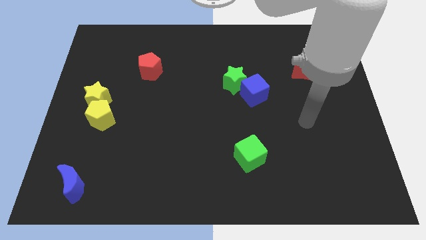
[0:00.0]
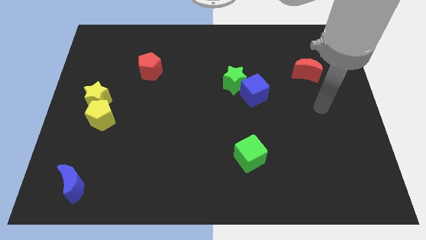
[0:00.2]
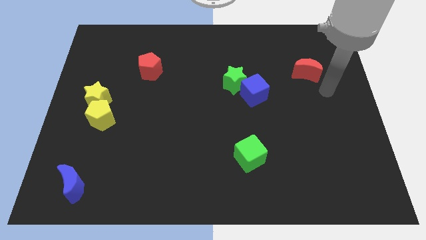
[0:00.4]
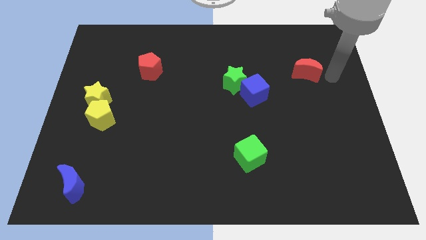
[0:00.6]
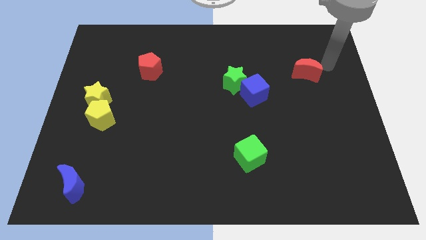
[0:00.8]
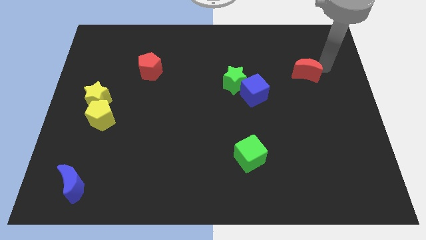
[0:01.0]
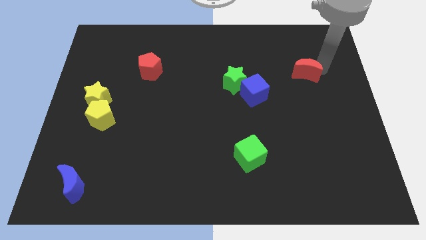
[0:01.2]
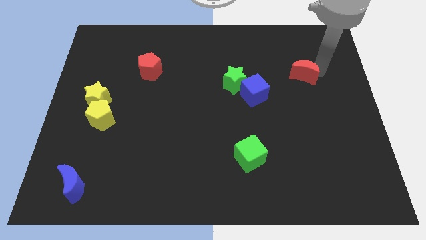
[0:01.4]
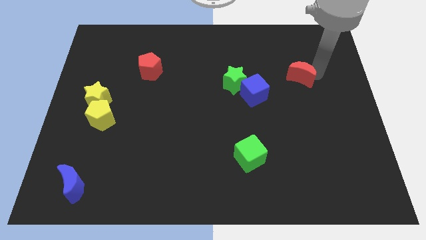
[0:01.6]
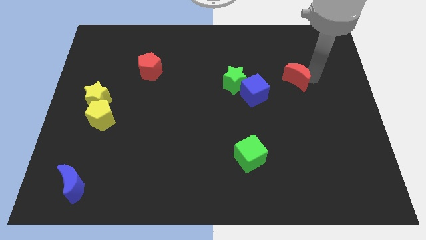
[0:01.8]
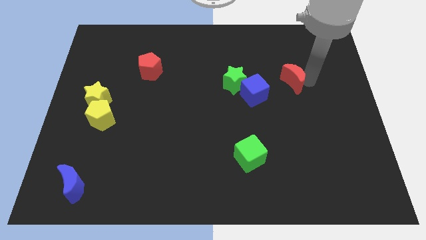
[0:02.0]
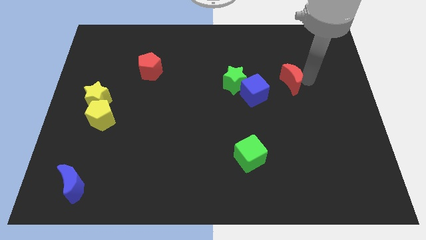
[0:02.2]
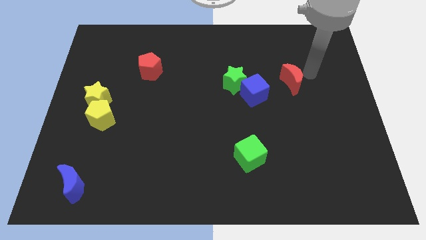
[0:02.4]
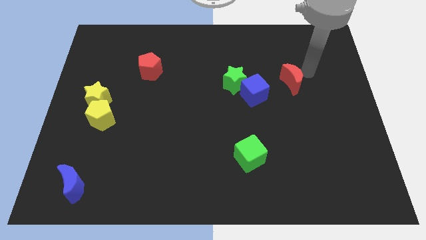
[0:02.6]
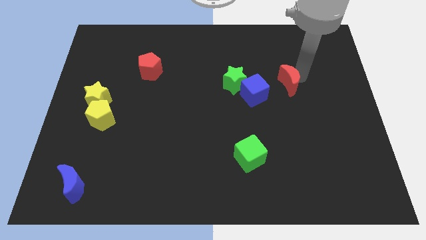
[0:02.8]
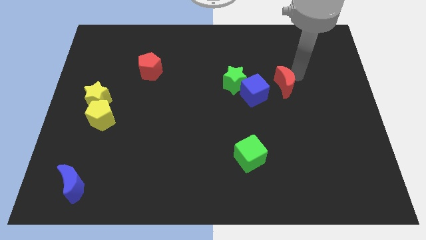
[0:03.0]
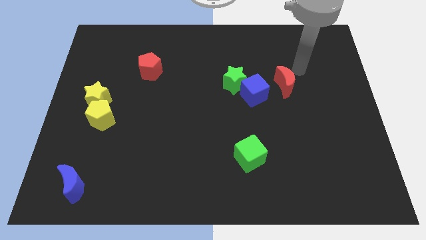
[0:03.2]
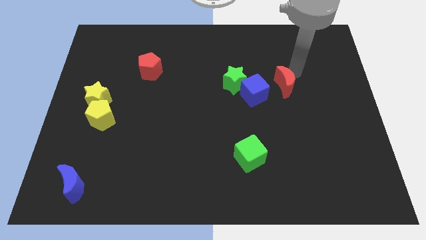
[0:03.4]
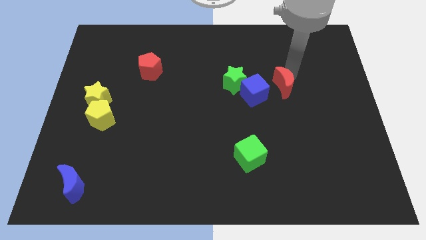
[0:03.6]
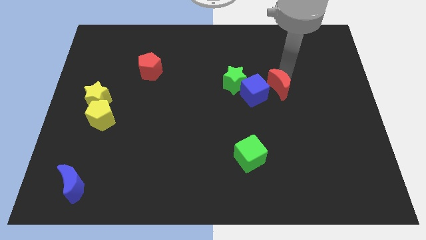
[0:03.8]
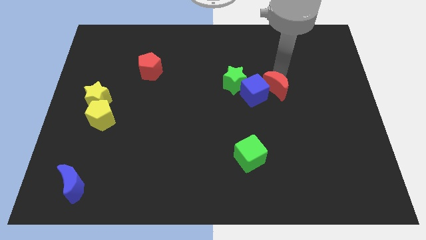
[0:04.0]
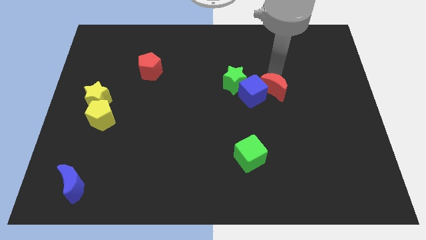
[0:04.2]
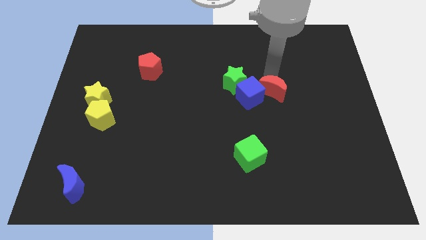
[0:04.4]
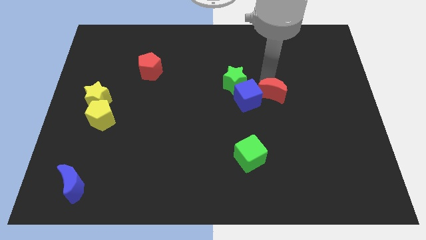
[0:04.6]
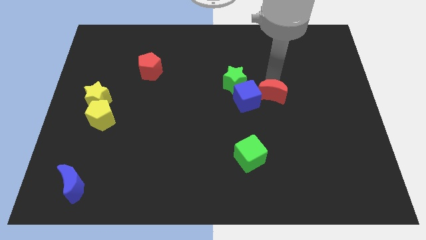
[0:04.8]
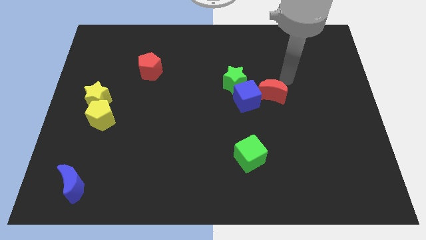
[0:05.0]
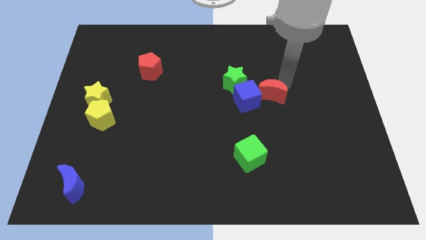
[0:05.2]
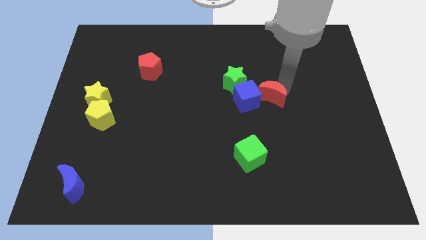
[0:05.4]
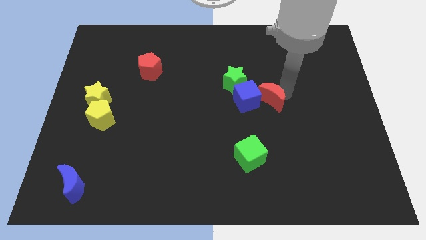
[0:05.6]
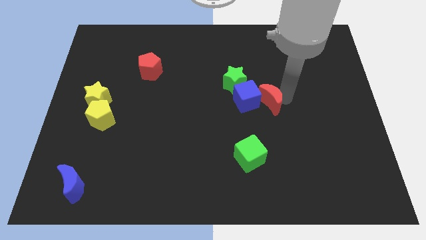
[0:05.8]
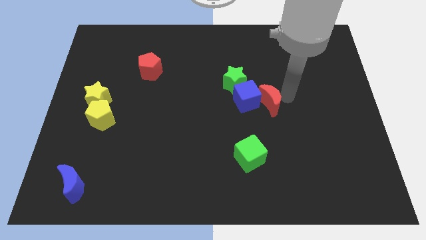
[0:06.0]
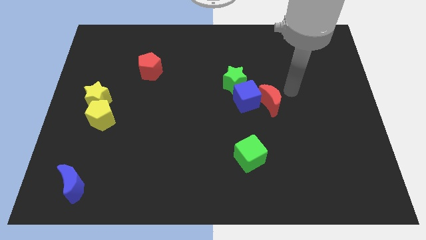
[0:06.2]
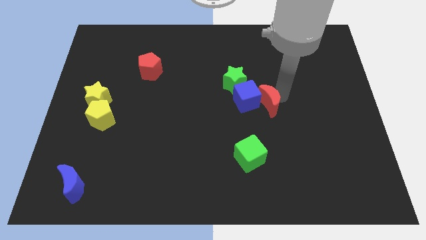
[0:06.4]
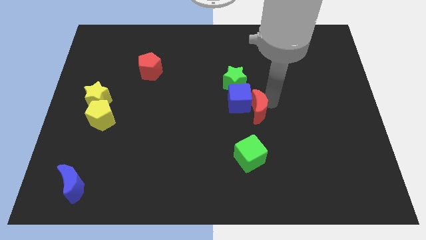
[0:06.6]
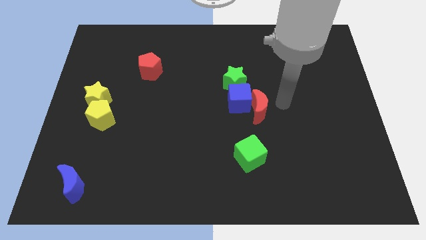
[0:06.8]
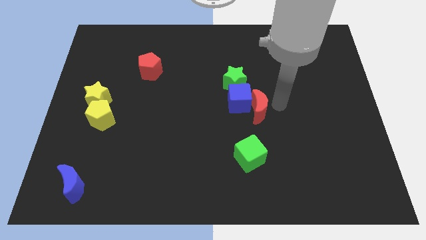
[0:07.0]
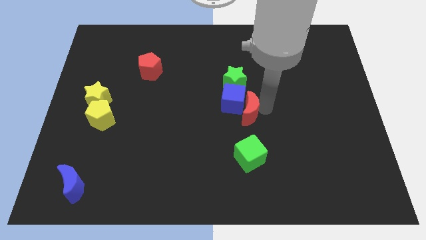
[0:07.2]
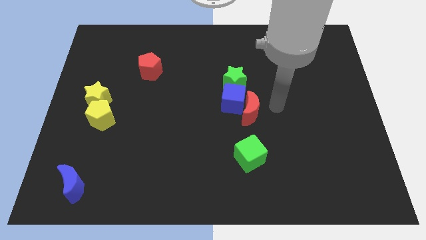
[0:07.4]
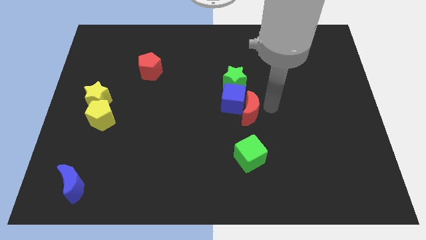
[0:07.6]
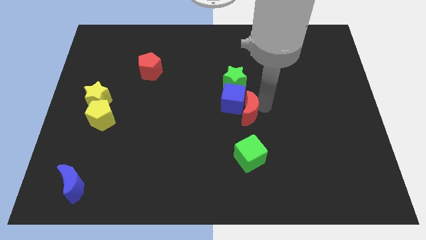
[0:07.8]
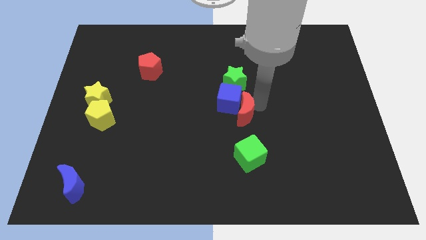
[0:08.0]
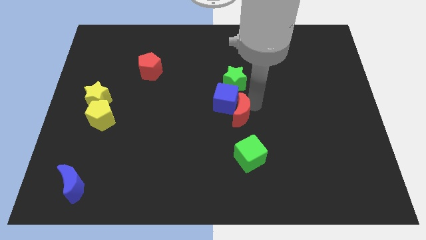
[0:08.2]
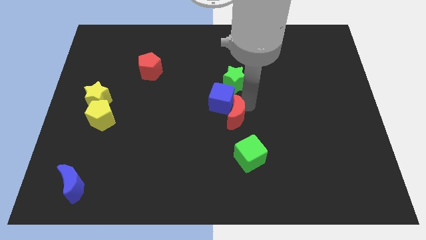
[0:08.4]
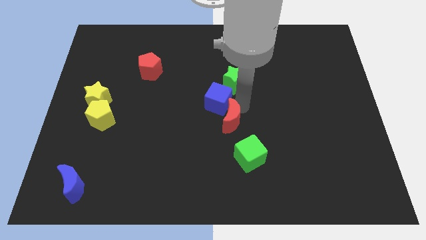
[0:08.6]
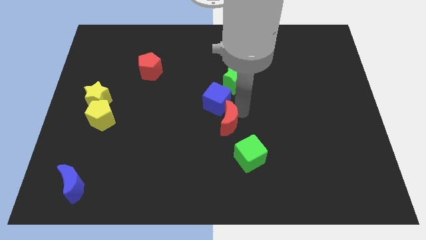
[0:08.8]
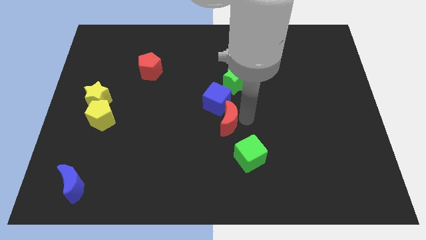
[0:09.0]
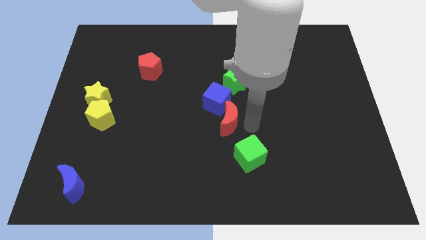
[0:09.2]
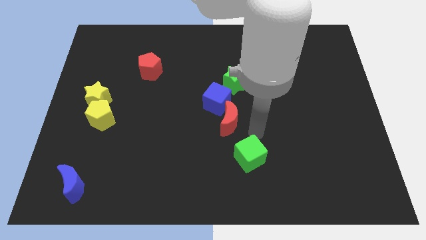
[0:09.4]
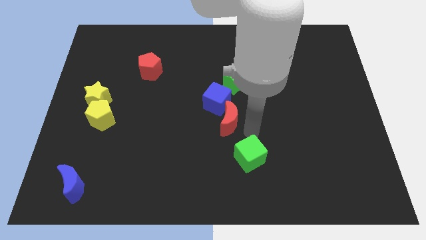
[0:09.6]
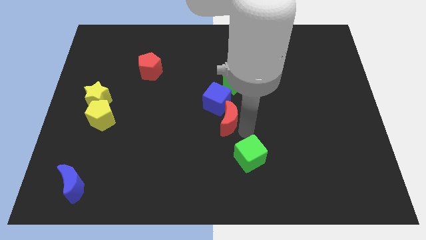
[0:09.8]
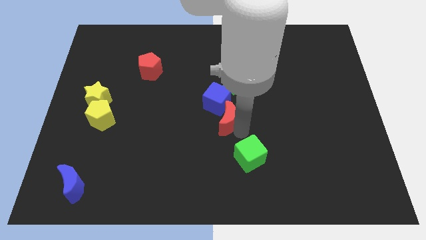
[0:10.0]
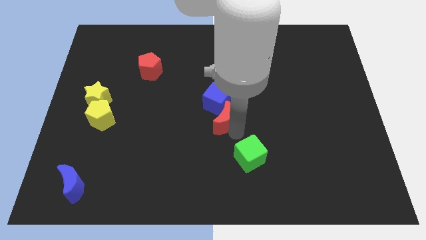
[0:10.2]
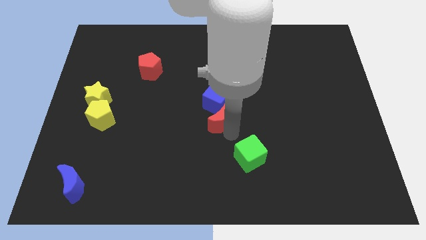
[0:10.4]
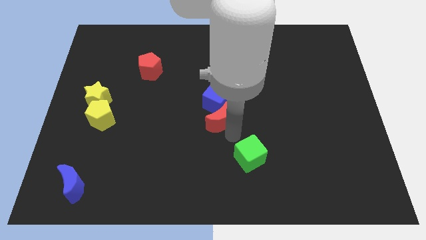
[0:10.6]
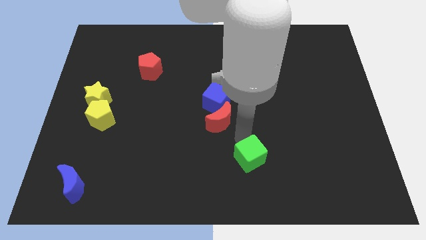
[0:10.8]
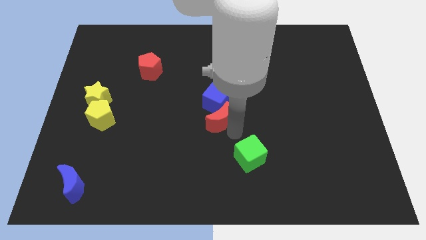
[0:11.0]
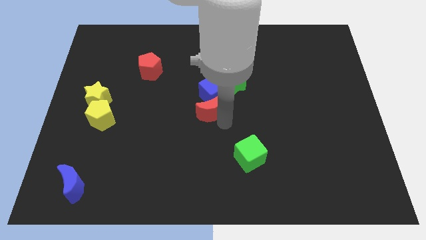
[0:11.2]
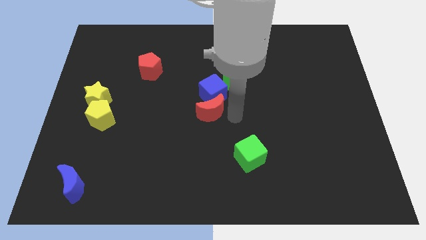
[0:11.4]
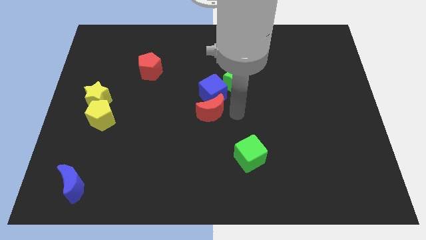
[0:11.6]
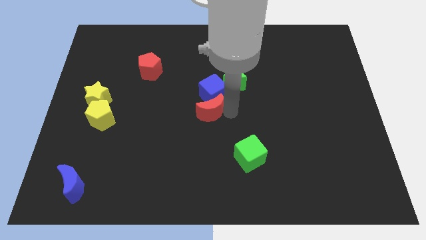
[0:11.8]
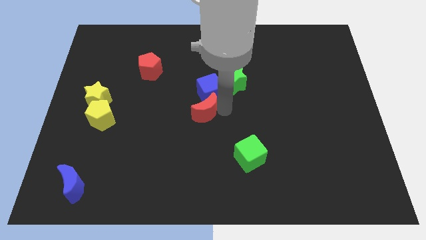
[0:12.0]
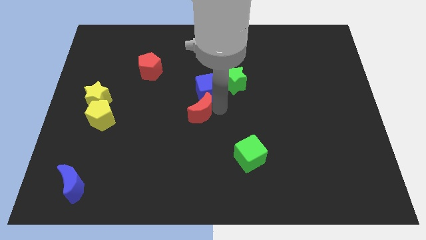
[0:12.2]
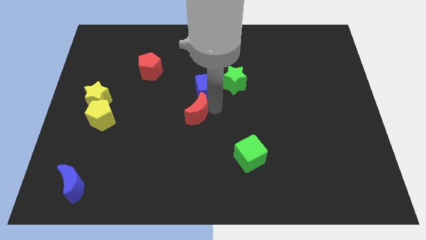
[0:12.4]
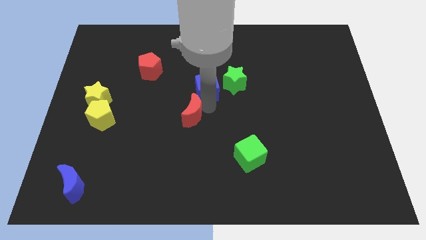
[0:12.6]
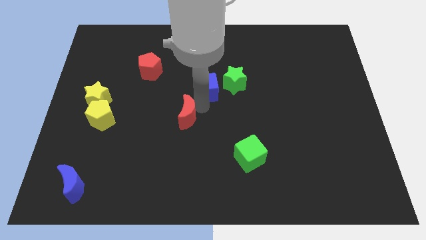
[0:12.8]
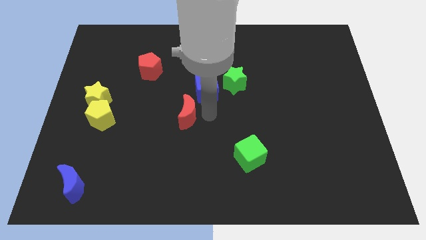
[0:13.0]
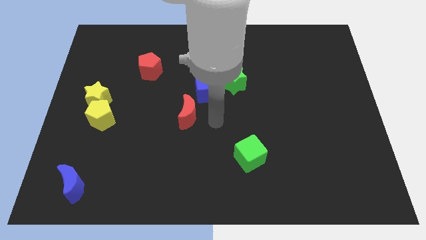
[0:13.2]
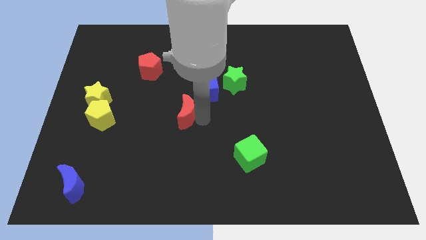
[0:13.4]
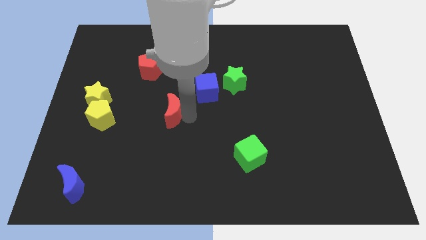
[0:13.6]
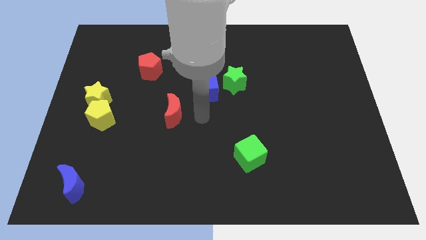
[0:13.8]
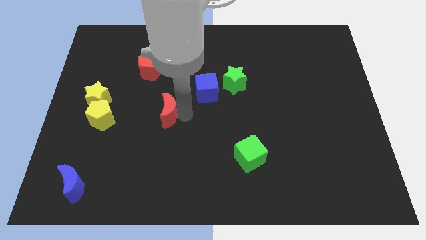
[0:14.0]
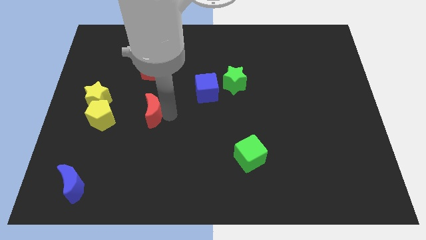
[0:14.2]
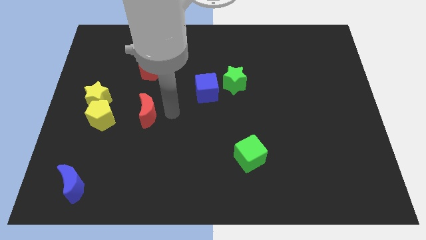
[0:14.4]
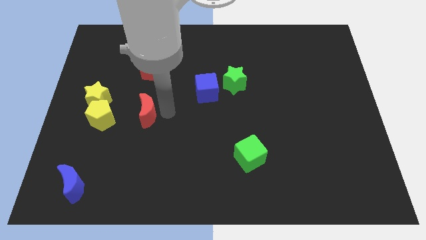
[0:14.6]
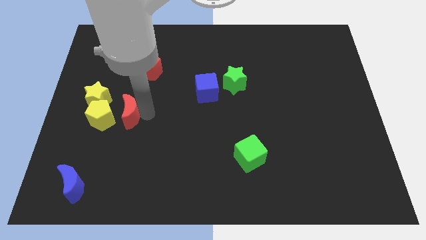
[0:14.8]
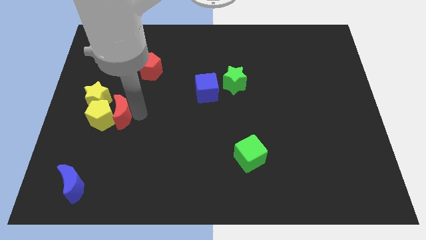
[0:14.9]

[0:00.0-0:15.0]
slide the red moon next to the yellow pentagon
